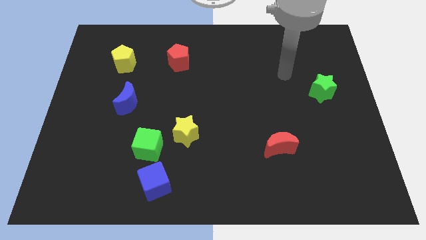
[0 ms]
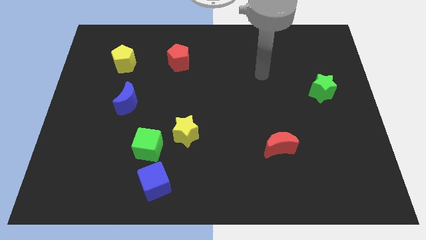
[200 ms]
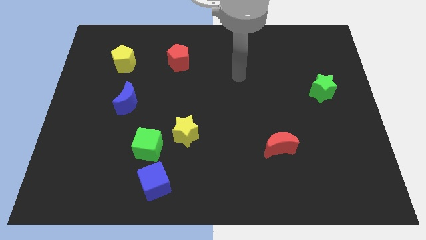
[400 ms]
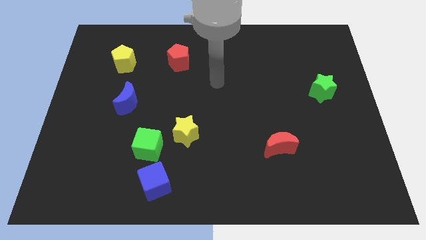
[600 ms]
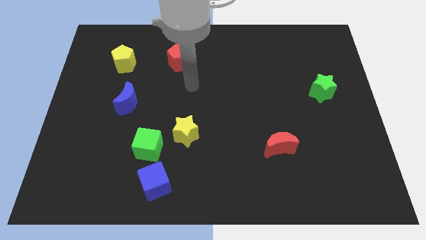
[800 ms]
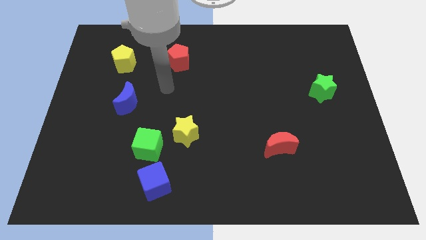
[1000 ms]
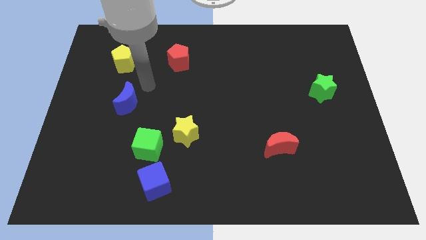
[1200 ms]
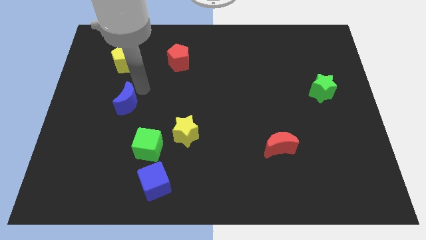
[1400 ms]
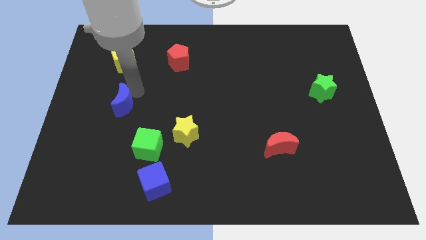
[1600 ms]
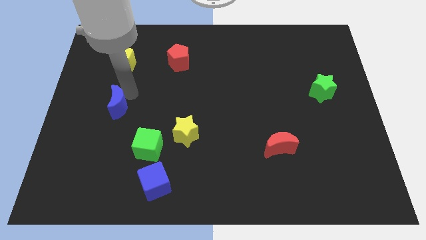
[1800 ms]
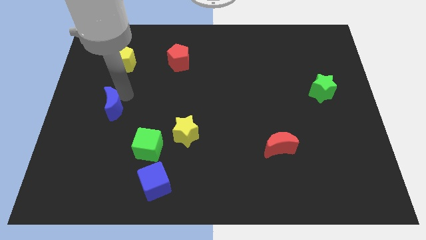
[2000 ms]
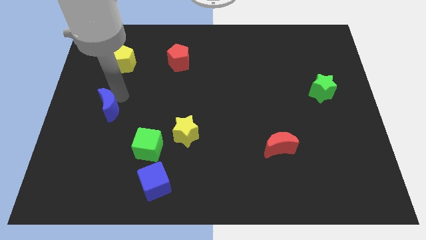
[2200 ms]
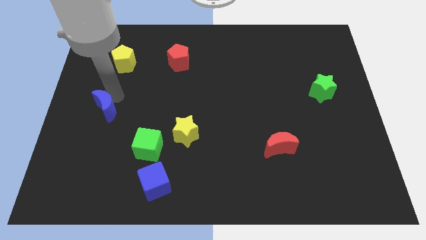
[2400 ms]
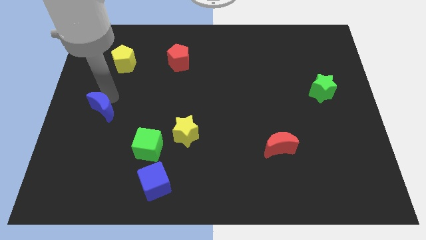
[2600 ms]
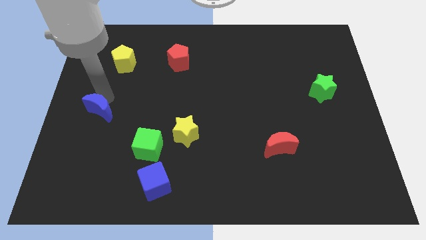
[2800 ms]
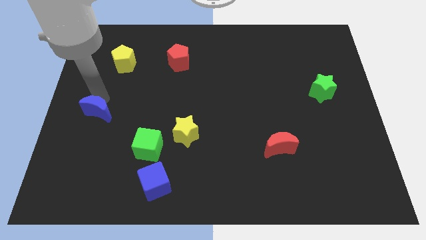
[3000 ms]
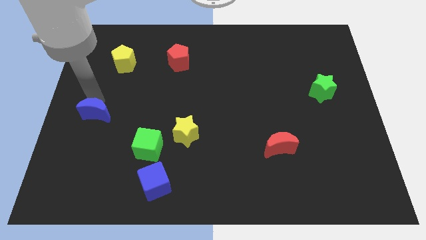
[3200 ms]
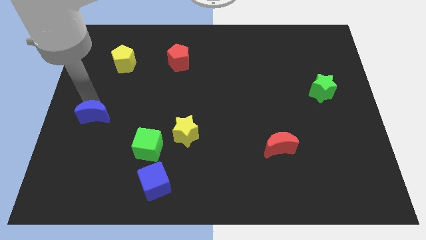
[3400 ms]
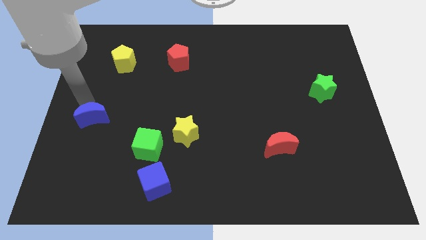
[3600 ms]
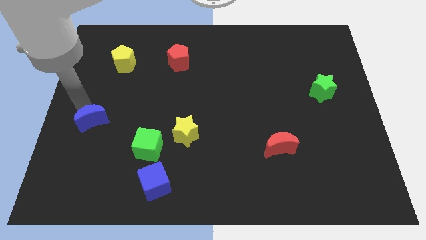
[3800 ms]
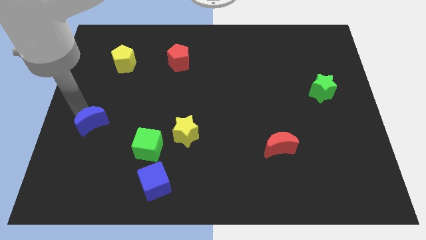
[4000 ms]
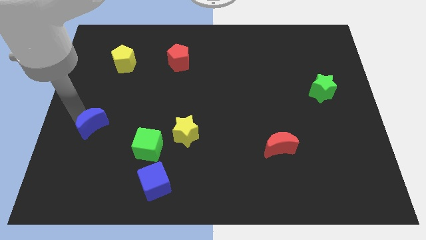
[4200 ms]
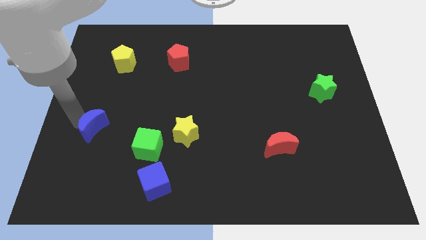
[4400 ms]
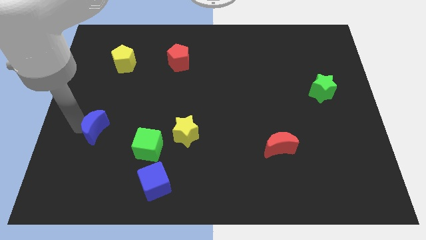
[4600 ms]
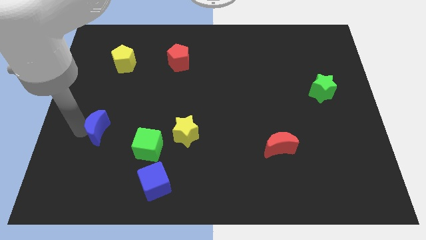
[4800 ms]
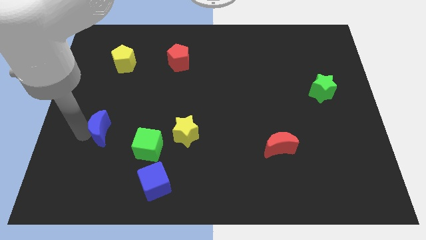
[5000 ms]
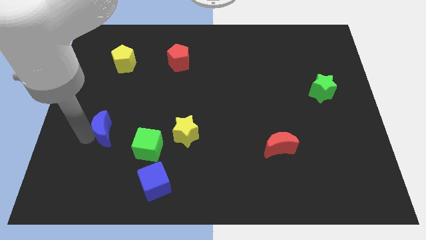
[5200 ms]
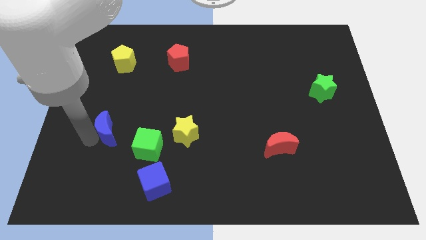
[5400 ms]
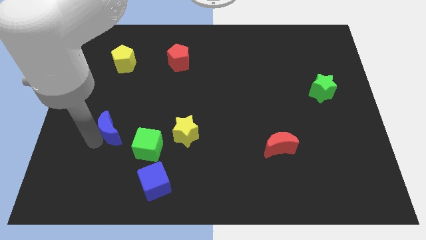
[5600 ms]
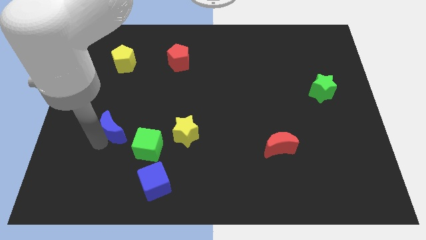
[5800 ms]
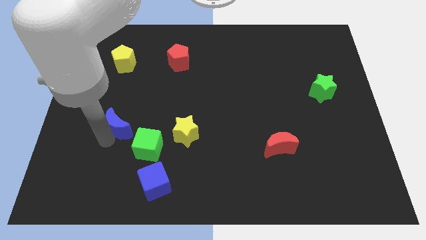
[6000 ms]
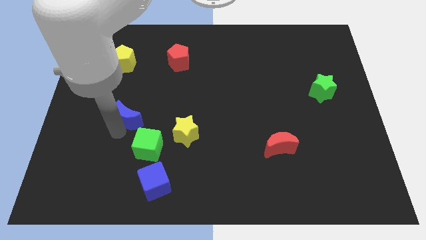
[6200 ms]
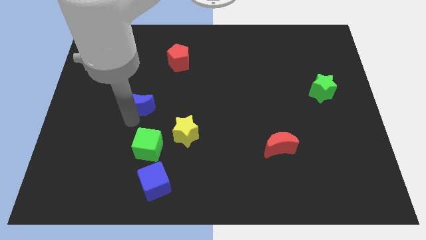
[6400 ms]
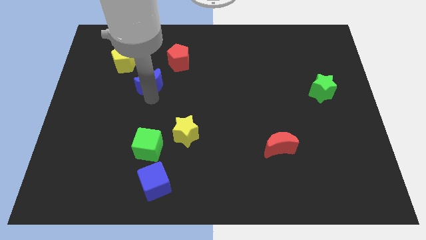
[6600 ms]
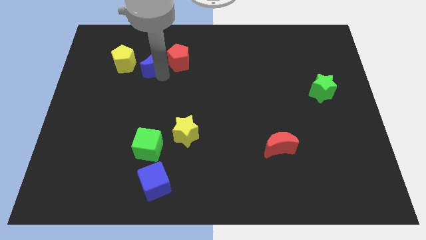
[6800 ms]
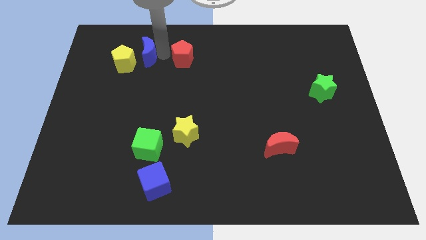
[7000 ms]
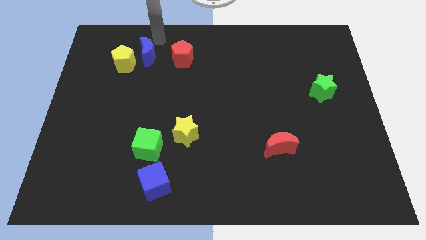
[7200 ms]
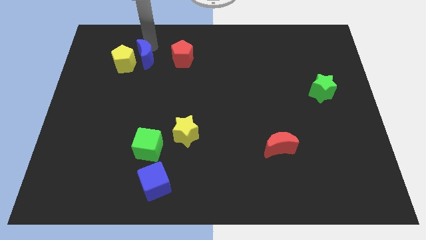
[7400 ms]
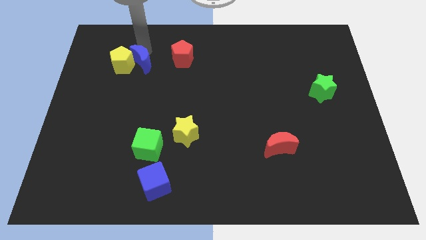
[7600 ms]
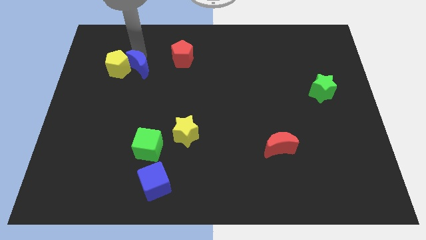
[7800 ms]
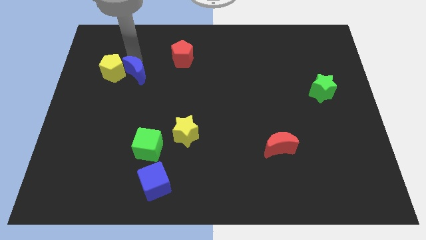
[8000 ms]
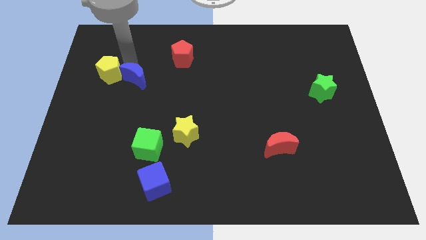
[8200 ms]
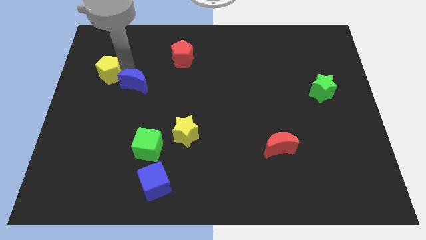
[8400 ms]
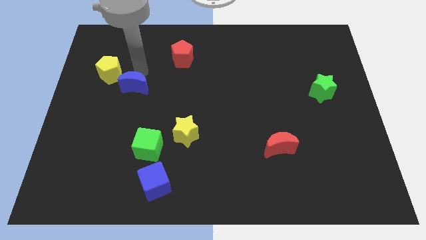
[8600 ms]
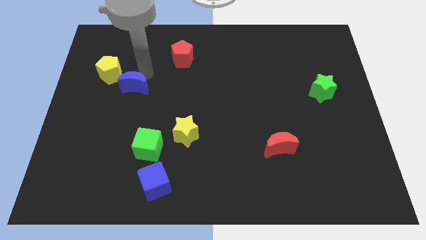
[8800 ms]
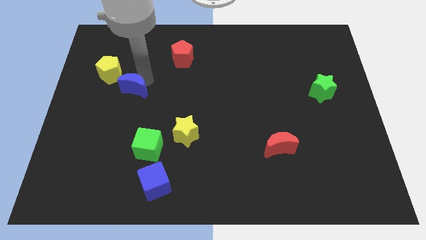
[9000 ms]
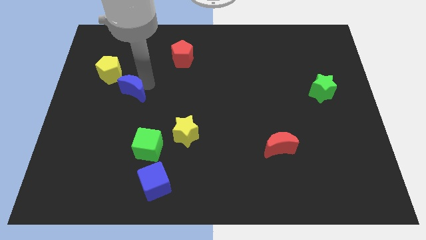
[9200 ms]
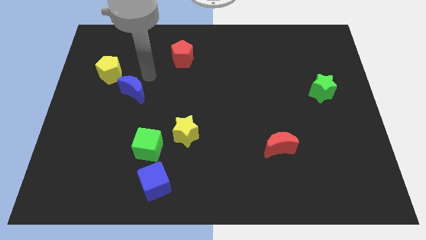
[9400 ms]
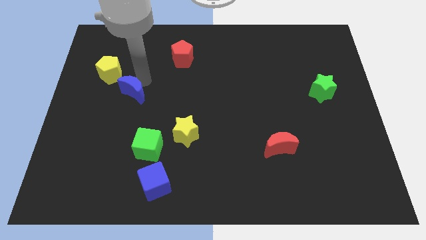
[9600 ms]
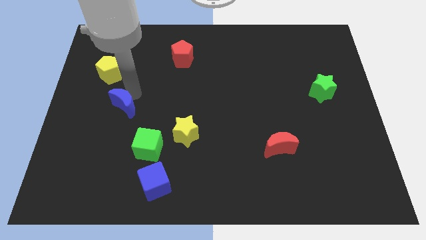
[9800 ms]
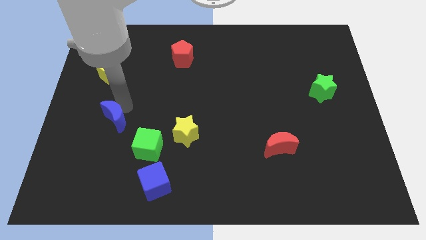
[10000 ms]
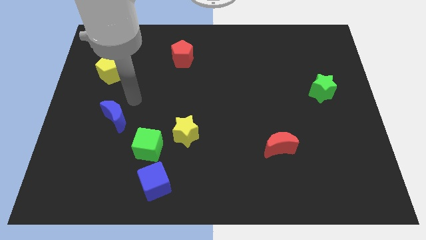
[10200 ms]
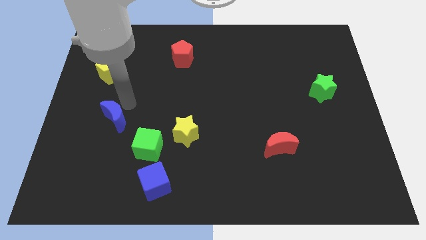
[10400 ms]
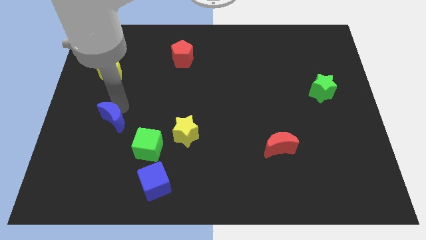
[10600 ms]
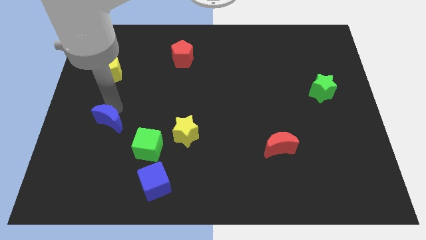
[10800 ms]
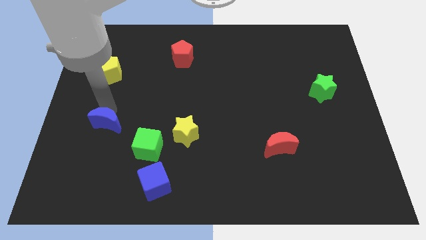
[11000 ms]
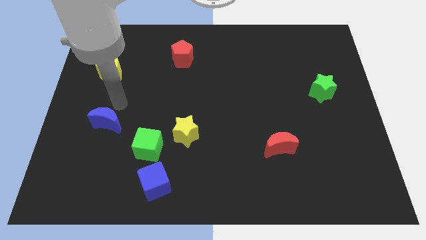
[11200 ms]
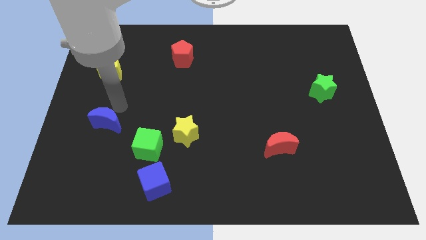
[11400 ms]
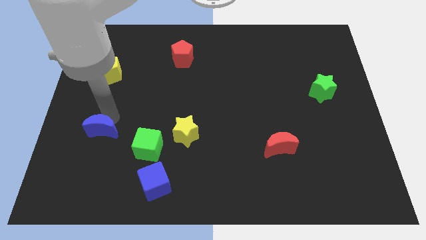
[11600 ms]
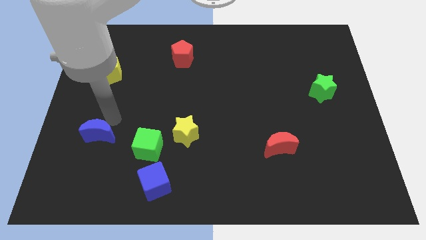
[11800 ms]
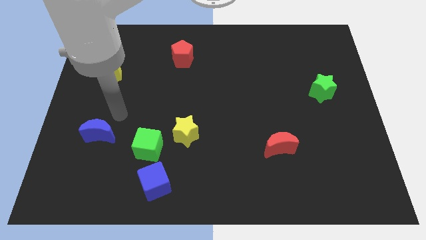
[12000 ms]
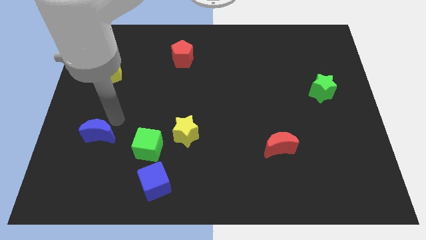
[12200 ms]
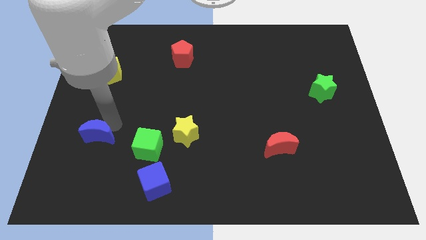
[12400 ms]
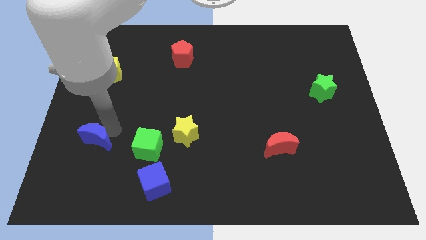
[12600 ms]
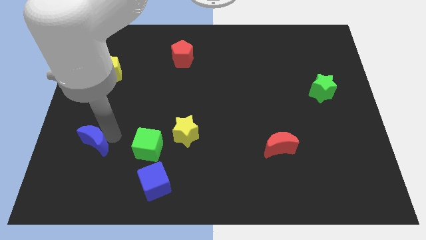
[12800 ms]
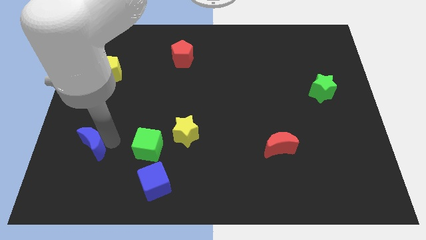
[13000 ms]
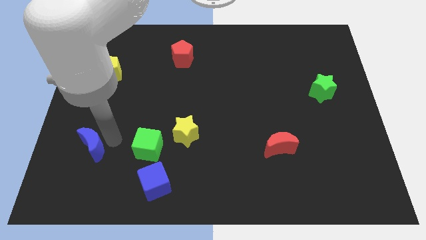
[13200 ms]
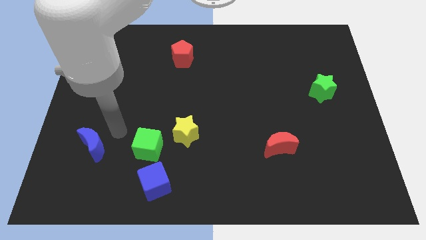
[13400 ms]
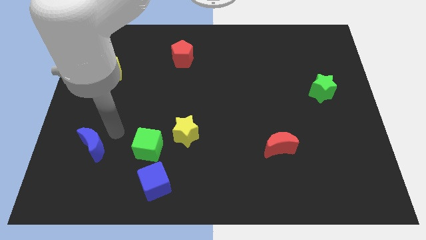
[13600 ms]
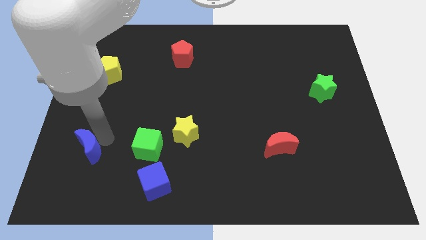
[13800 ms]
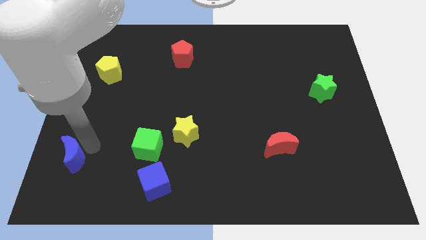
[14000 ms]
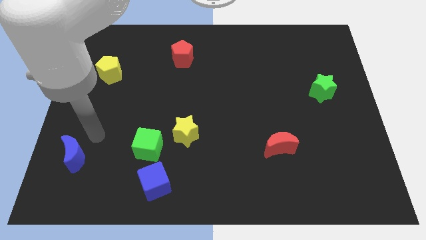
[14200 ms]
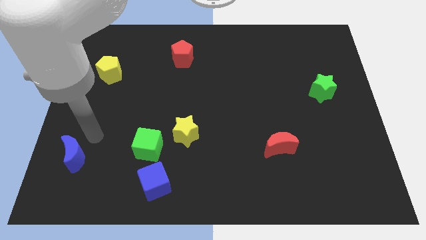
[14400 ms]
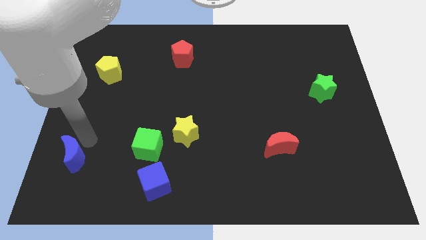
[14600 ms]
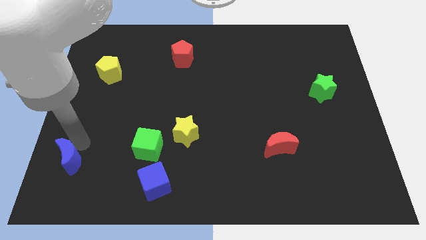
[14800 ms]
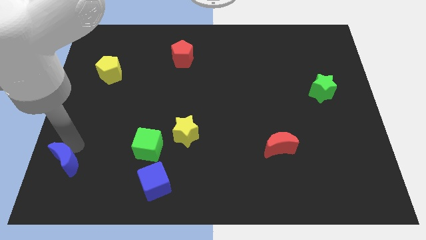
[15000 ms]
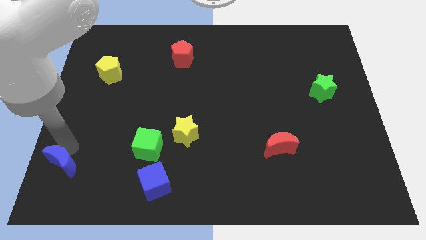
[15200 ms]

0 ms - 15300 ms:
put the blue moon to the lower left corner
